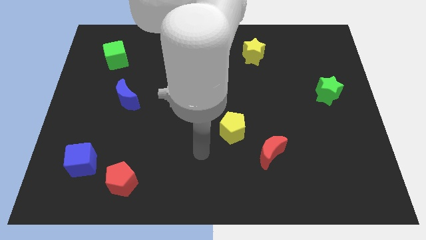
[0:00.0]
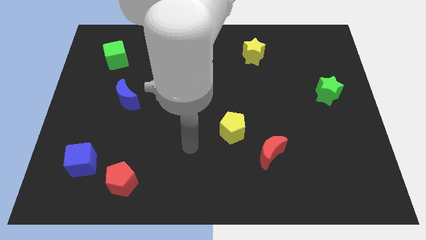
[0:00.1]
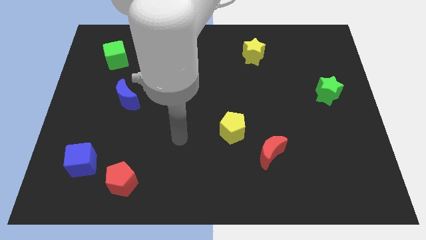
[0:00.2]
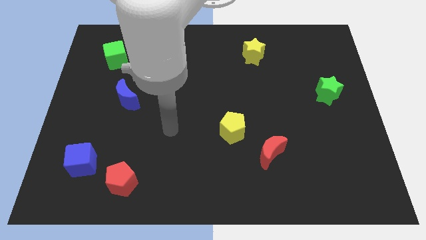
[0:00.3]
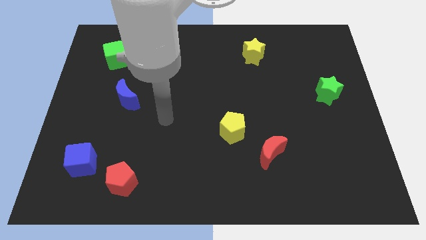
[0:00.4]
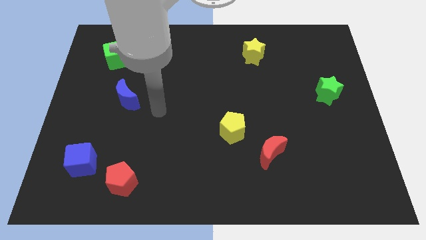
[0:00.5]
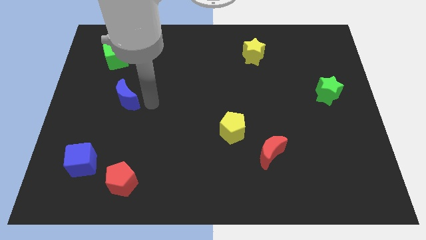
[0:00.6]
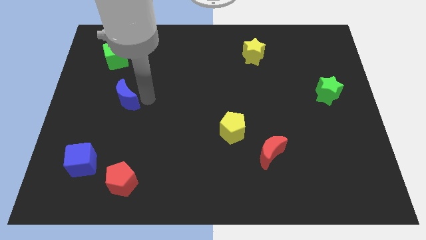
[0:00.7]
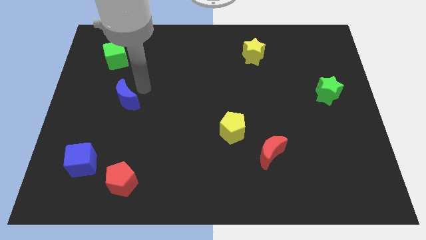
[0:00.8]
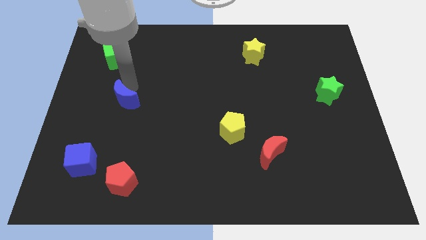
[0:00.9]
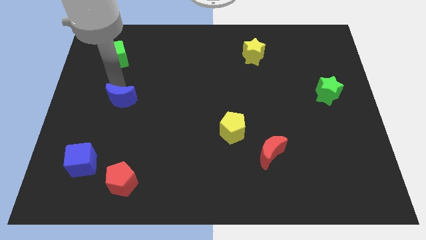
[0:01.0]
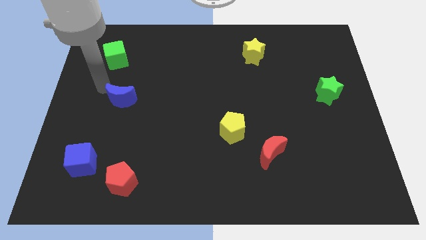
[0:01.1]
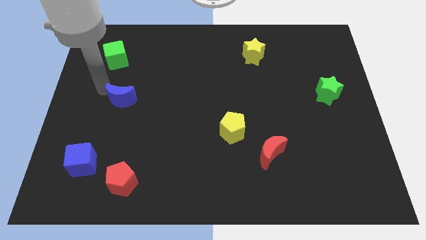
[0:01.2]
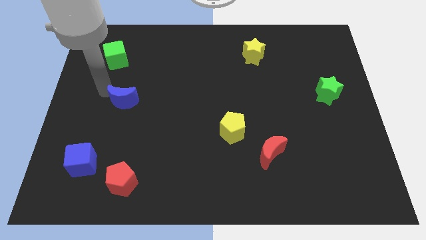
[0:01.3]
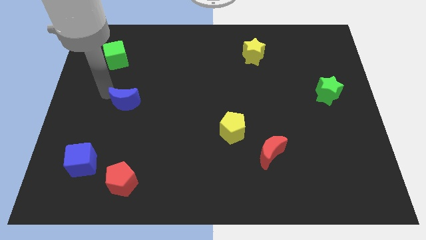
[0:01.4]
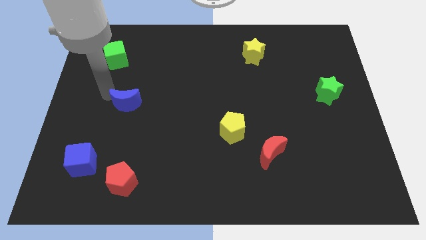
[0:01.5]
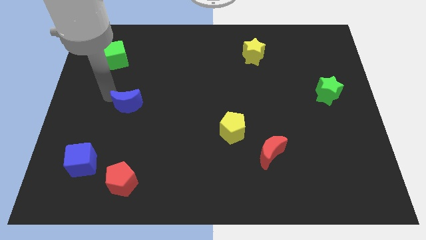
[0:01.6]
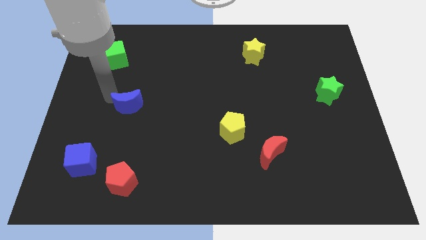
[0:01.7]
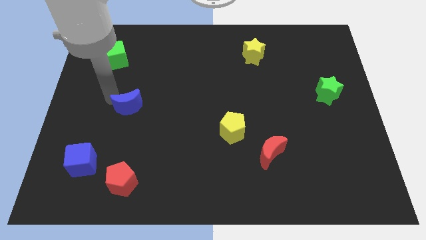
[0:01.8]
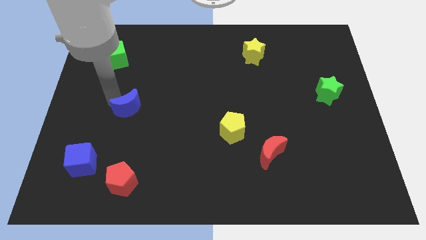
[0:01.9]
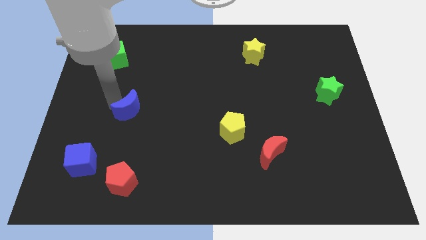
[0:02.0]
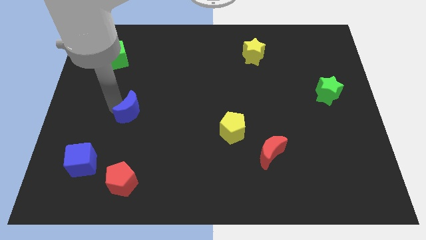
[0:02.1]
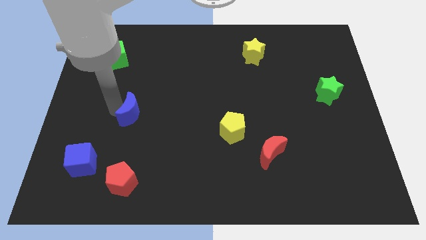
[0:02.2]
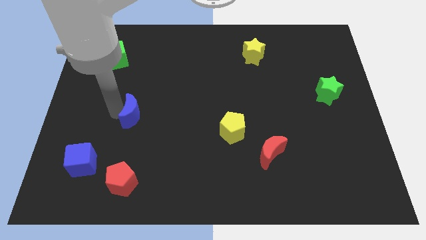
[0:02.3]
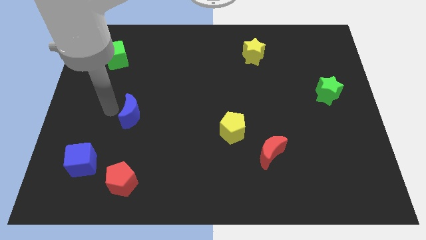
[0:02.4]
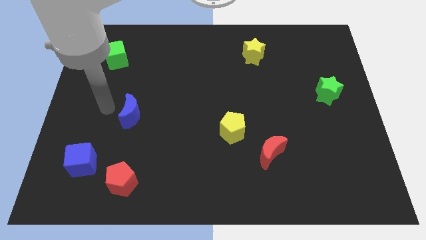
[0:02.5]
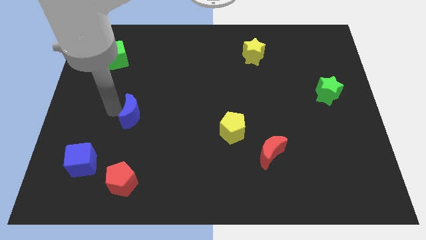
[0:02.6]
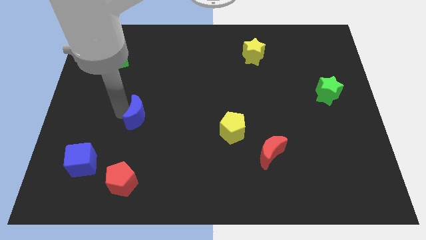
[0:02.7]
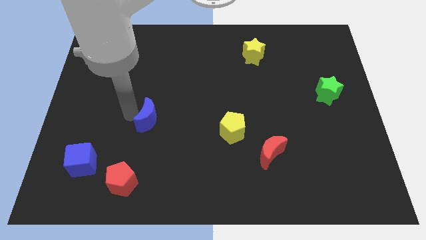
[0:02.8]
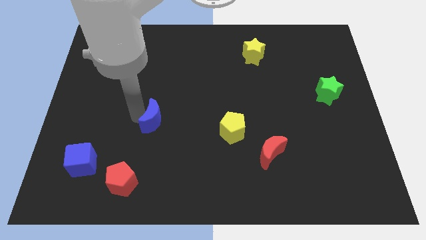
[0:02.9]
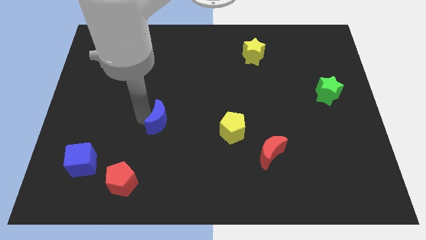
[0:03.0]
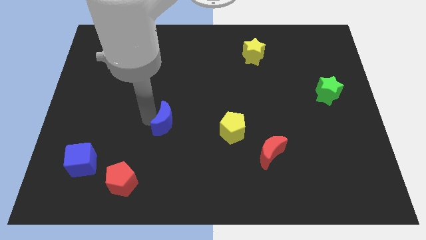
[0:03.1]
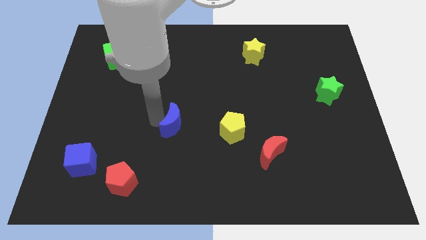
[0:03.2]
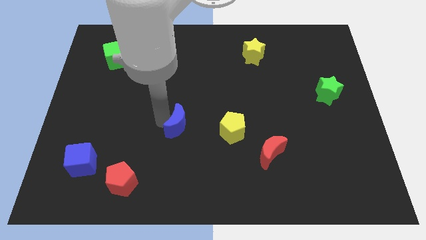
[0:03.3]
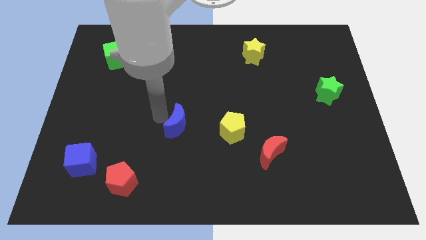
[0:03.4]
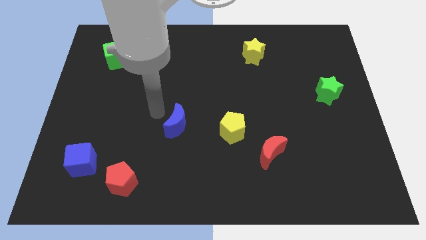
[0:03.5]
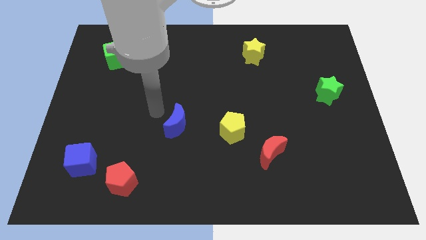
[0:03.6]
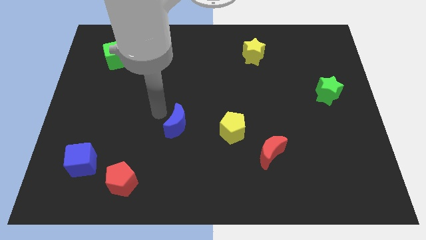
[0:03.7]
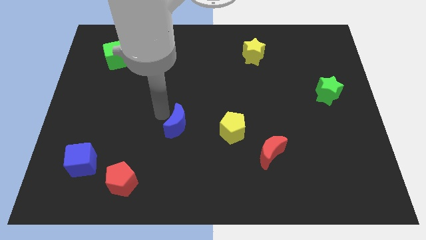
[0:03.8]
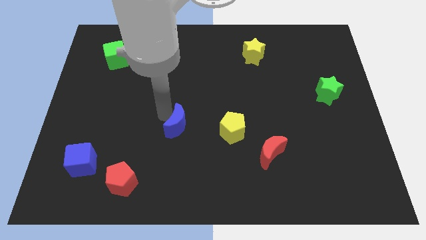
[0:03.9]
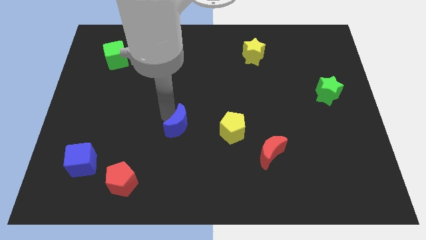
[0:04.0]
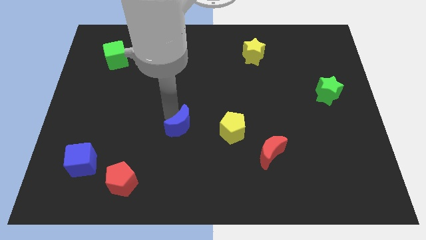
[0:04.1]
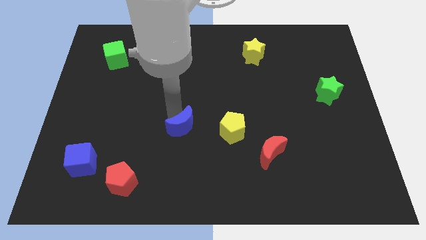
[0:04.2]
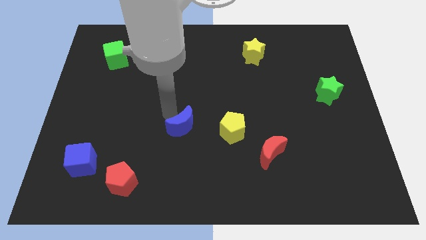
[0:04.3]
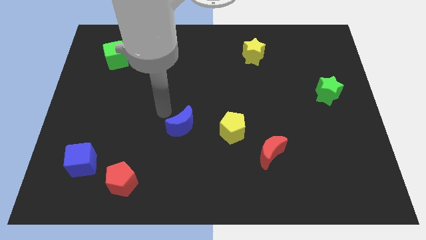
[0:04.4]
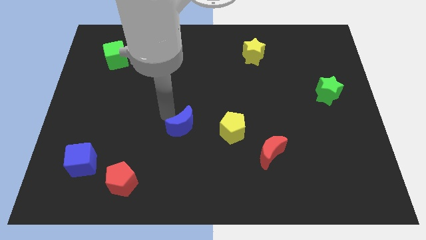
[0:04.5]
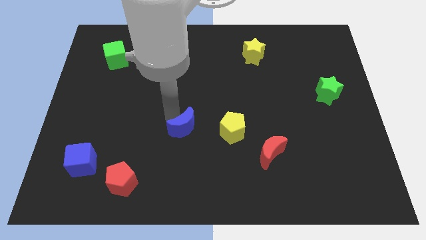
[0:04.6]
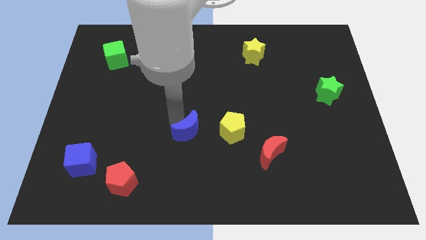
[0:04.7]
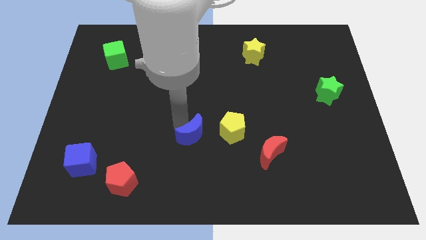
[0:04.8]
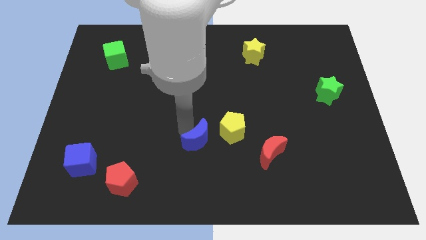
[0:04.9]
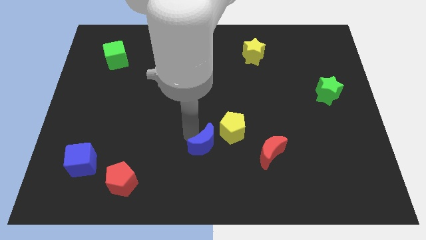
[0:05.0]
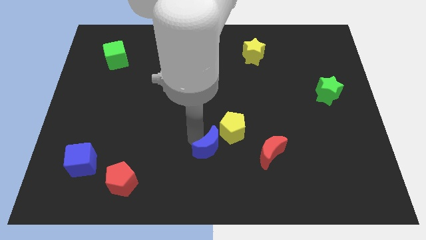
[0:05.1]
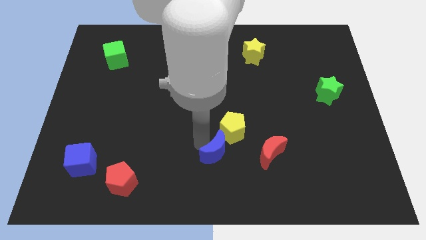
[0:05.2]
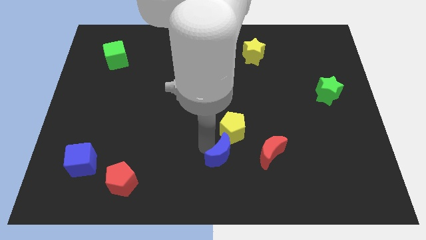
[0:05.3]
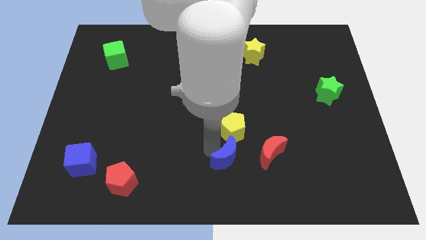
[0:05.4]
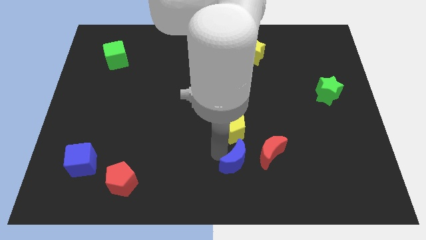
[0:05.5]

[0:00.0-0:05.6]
put the blue moon to the bottom left side of the red moon

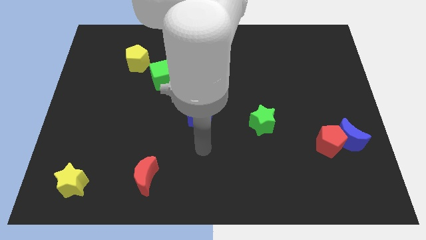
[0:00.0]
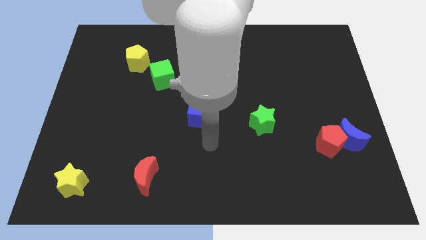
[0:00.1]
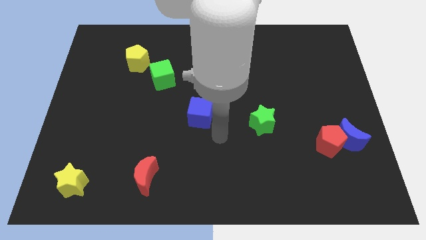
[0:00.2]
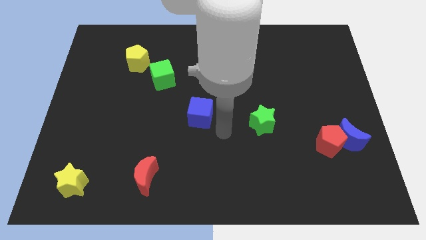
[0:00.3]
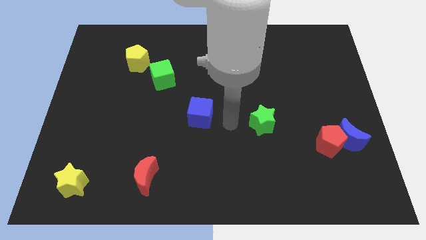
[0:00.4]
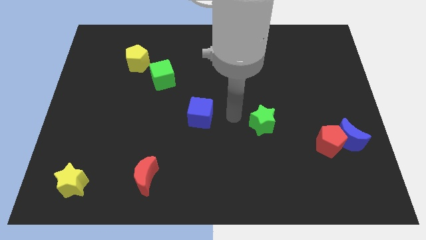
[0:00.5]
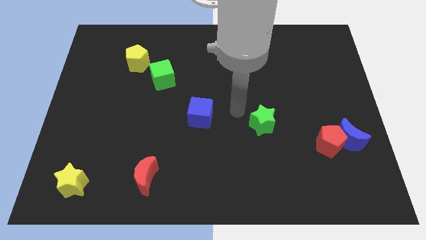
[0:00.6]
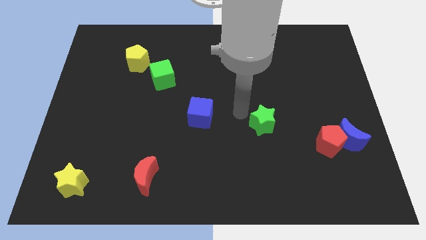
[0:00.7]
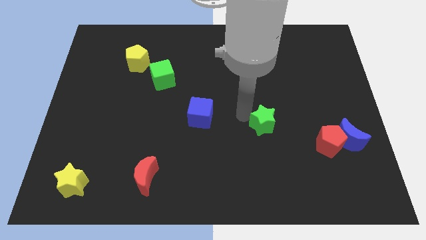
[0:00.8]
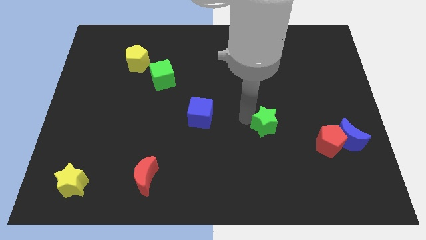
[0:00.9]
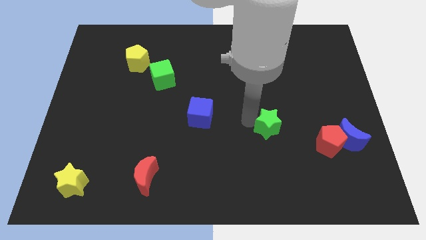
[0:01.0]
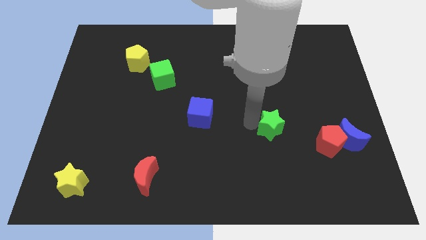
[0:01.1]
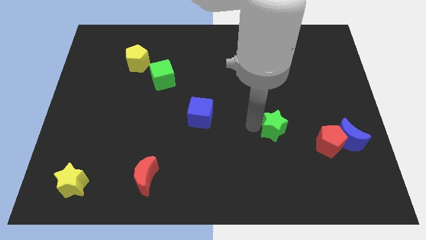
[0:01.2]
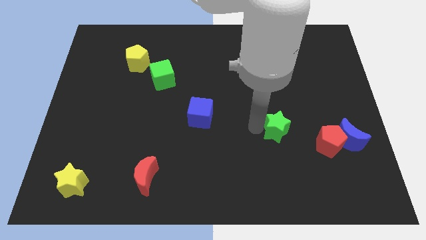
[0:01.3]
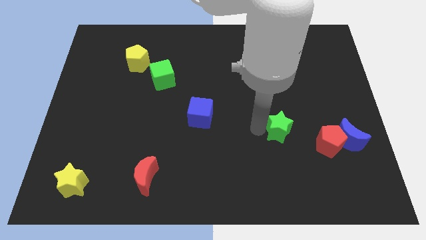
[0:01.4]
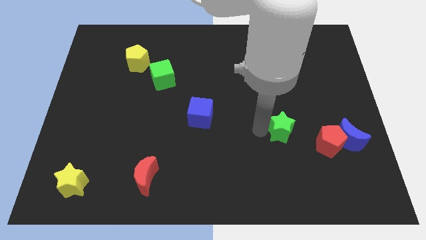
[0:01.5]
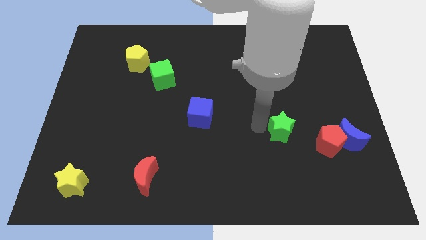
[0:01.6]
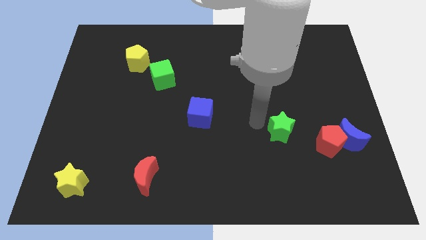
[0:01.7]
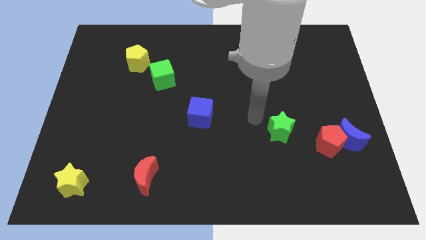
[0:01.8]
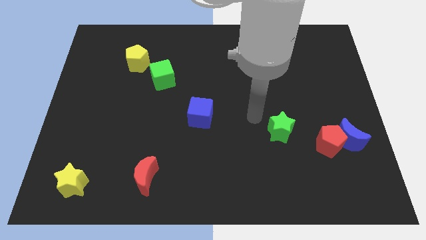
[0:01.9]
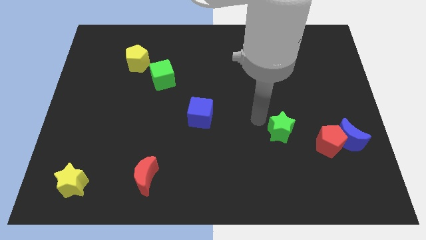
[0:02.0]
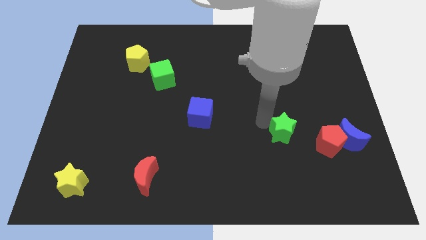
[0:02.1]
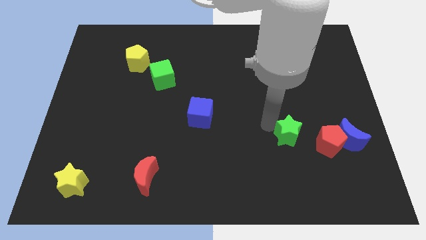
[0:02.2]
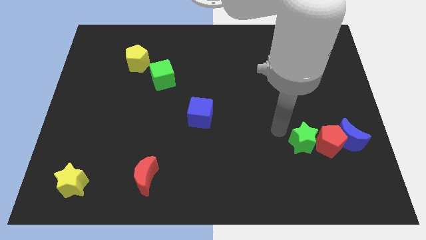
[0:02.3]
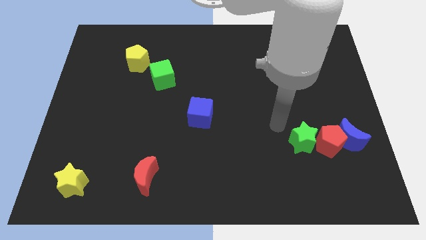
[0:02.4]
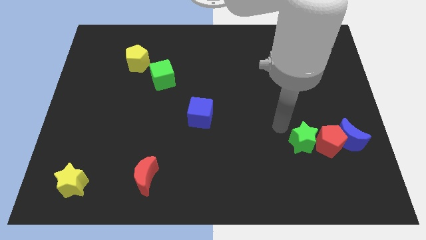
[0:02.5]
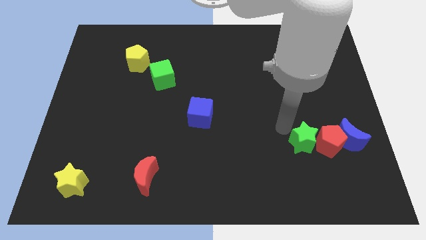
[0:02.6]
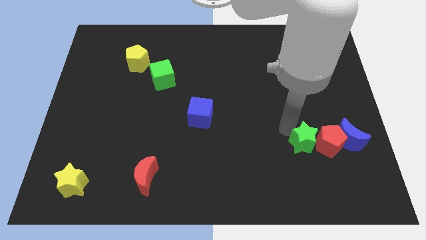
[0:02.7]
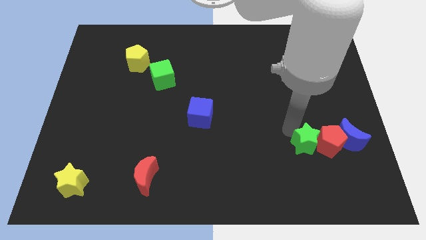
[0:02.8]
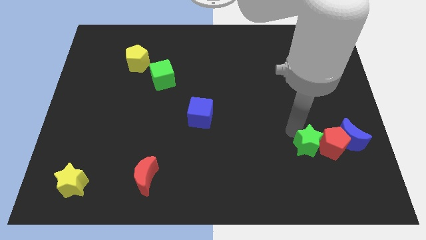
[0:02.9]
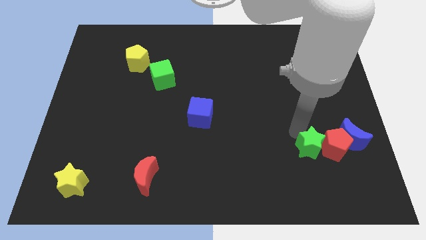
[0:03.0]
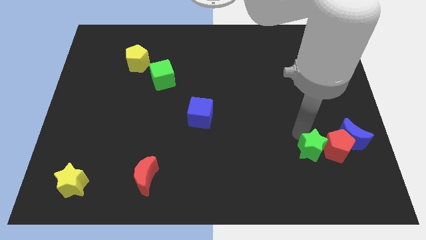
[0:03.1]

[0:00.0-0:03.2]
move the green star diagonally down and to the left of the blue moon
